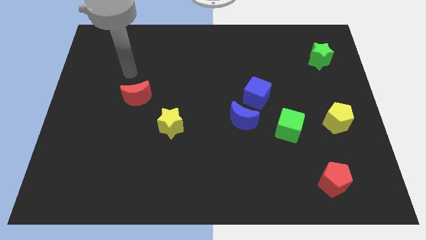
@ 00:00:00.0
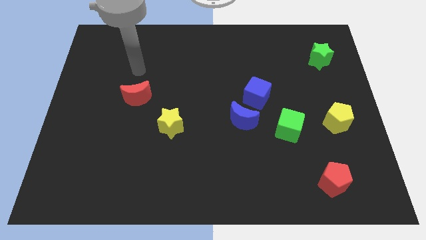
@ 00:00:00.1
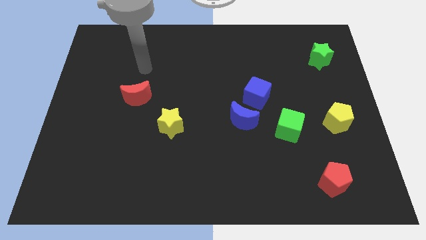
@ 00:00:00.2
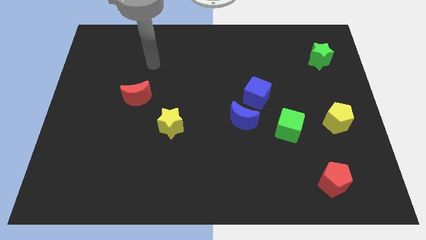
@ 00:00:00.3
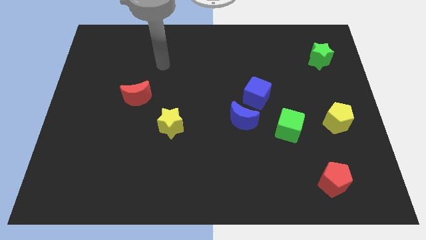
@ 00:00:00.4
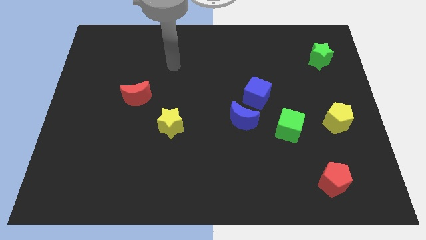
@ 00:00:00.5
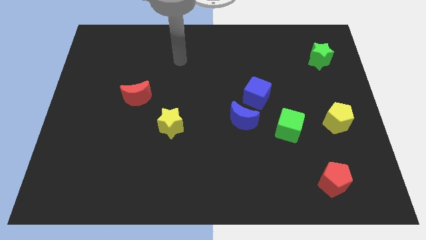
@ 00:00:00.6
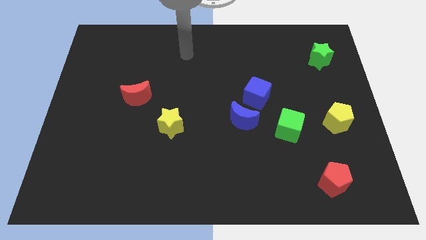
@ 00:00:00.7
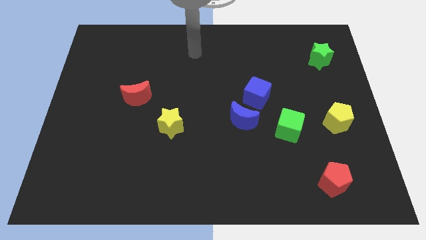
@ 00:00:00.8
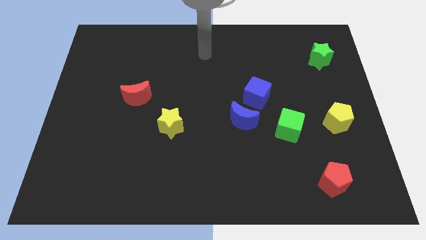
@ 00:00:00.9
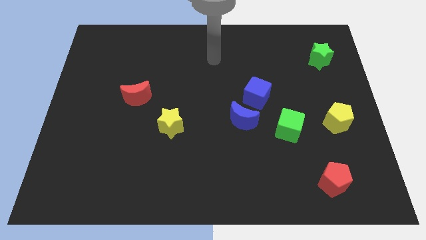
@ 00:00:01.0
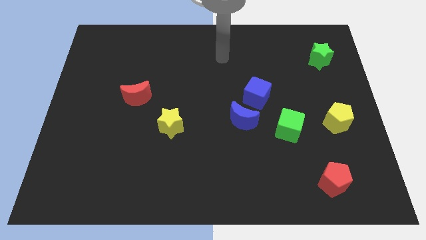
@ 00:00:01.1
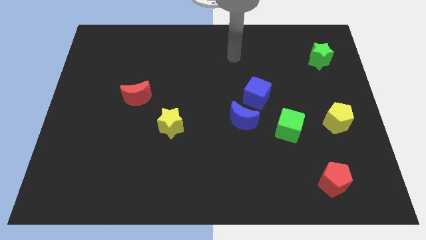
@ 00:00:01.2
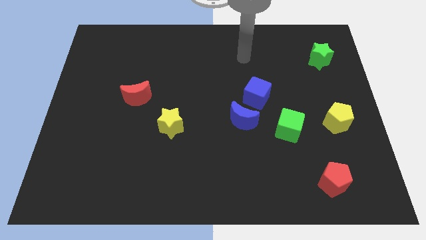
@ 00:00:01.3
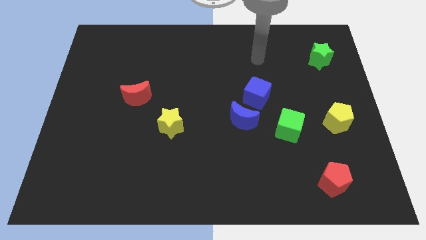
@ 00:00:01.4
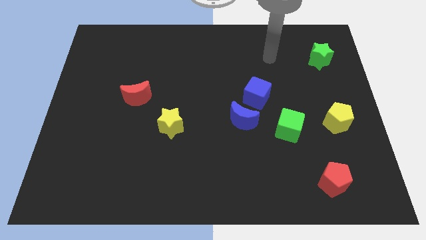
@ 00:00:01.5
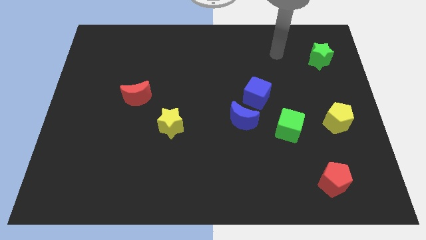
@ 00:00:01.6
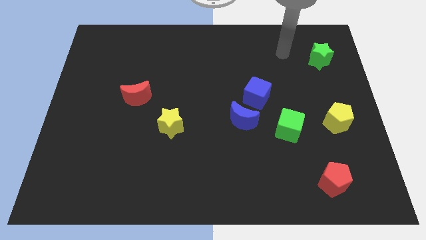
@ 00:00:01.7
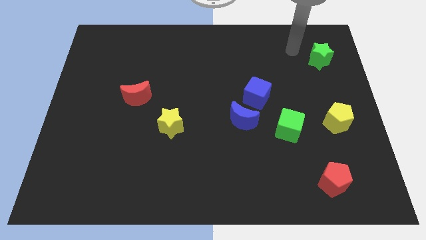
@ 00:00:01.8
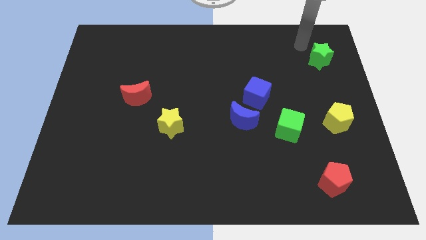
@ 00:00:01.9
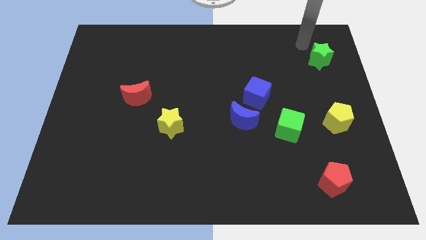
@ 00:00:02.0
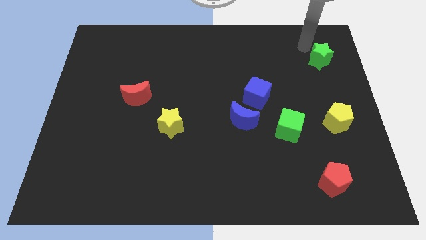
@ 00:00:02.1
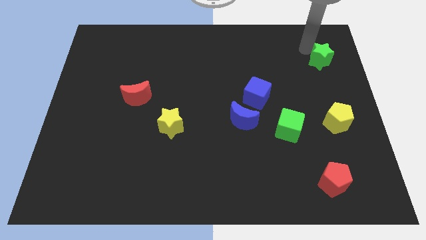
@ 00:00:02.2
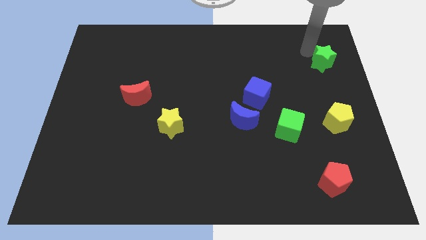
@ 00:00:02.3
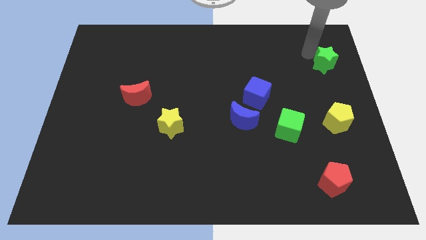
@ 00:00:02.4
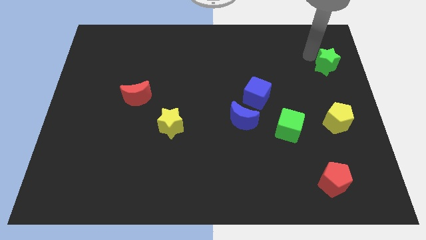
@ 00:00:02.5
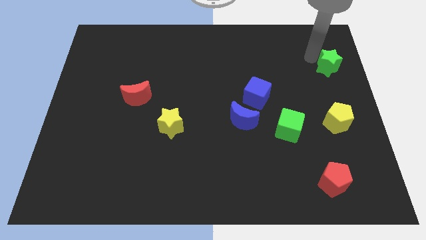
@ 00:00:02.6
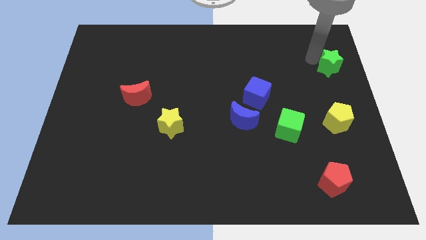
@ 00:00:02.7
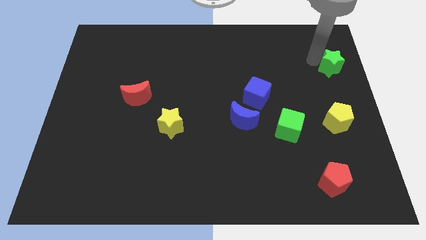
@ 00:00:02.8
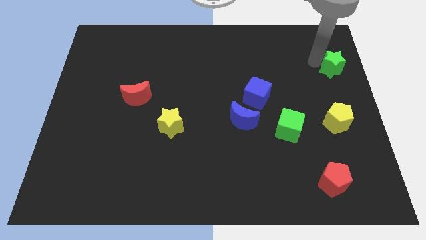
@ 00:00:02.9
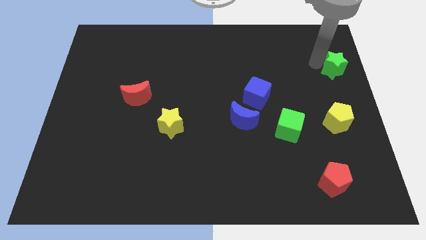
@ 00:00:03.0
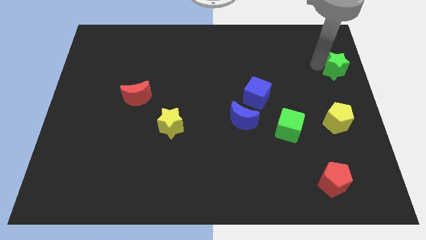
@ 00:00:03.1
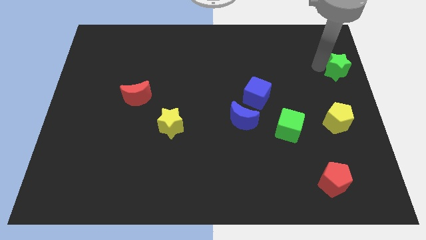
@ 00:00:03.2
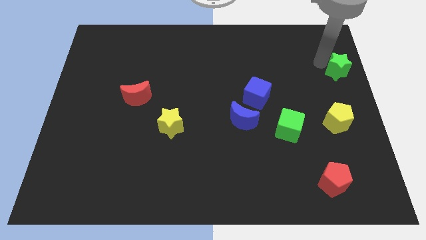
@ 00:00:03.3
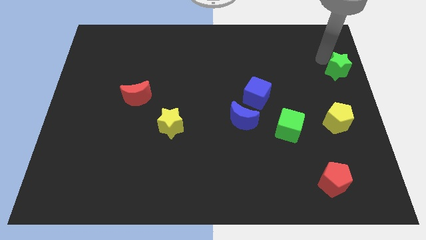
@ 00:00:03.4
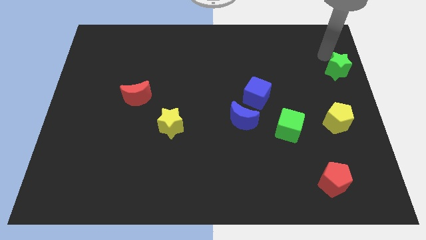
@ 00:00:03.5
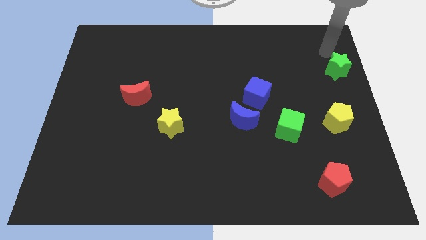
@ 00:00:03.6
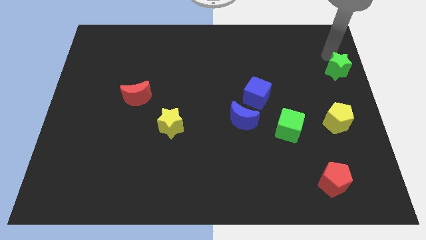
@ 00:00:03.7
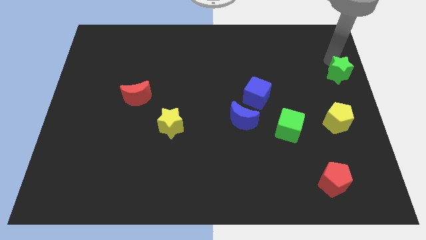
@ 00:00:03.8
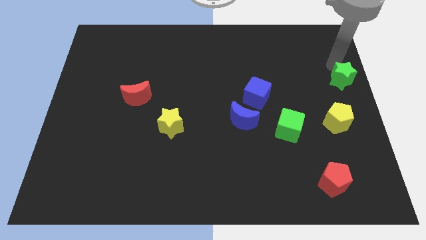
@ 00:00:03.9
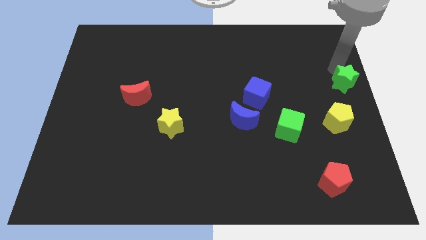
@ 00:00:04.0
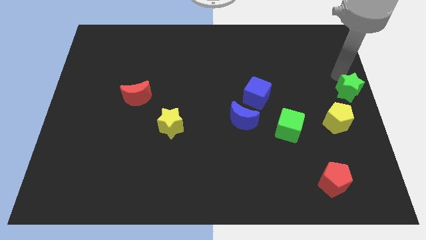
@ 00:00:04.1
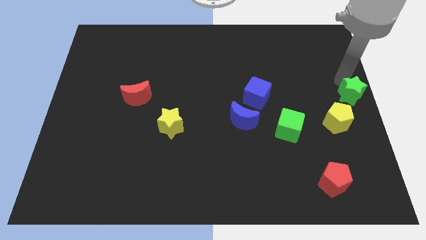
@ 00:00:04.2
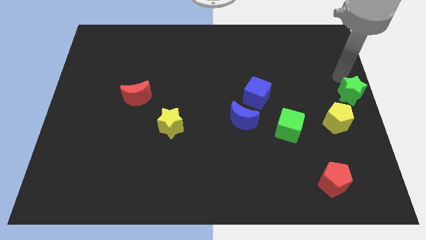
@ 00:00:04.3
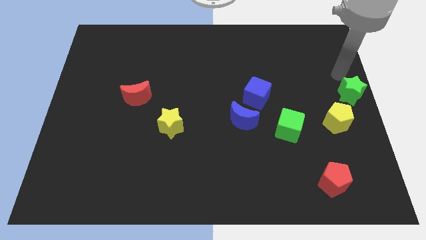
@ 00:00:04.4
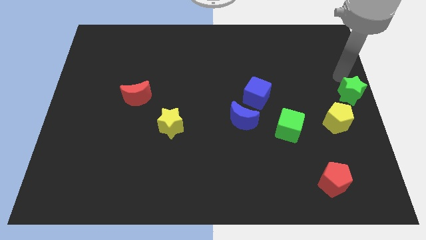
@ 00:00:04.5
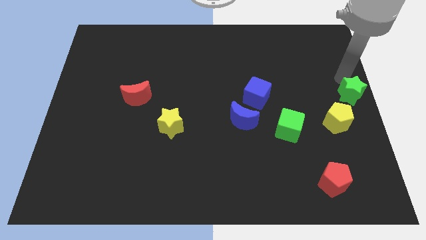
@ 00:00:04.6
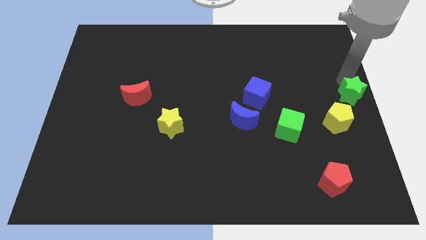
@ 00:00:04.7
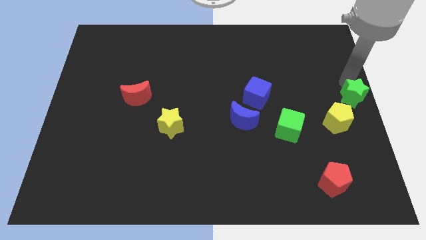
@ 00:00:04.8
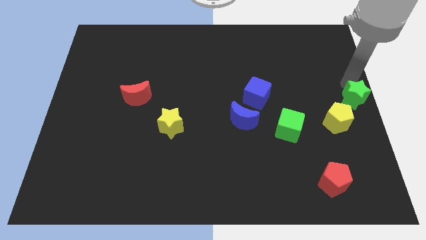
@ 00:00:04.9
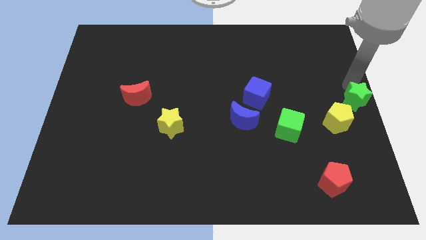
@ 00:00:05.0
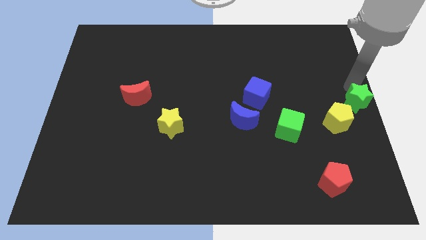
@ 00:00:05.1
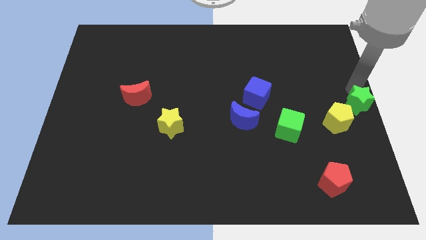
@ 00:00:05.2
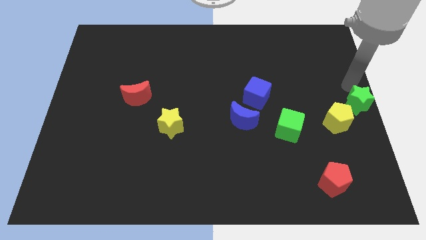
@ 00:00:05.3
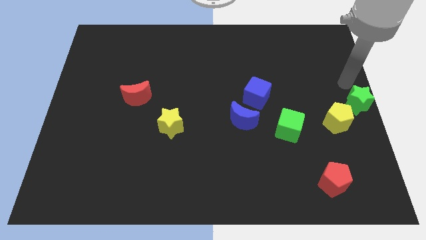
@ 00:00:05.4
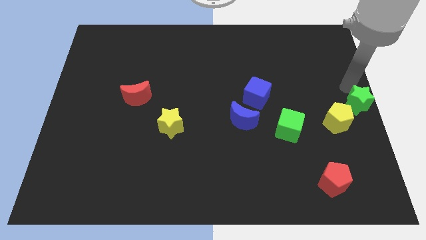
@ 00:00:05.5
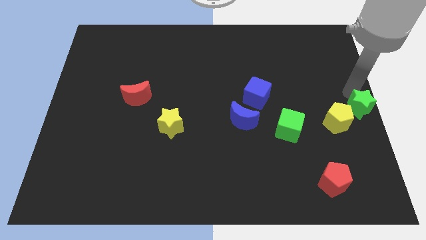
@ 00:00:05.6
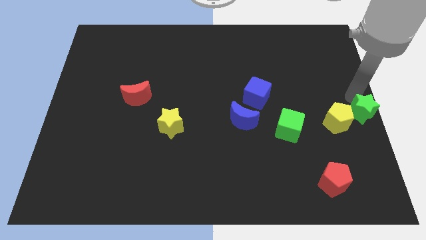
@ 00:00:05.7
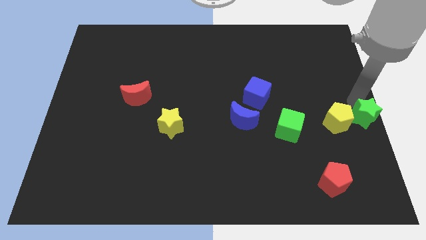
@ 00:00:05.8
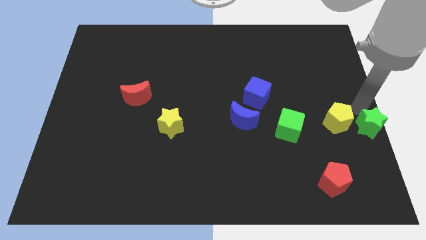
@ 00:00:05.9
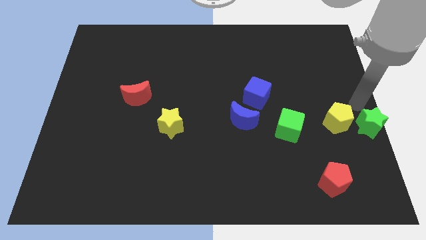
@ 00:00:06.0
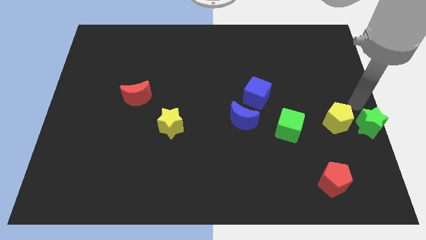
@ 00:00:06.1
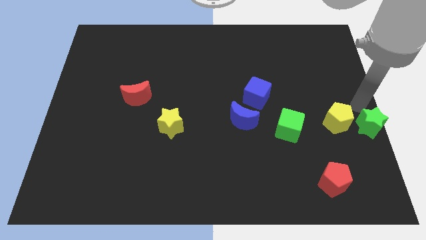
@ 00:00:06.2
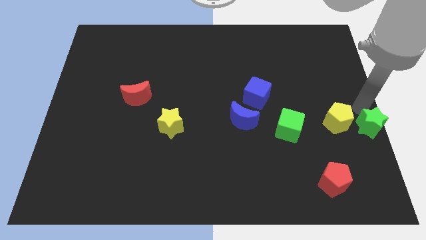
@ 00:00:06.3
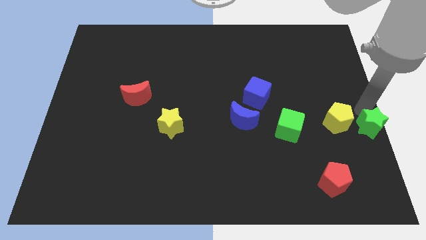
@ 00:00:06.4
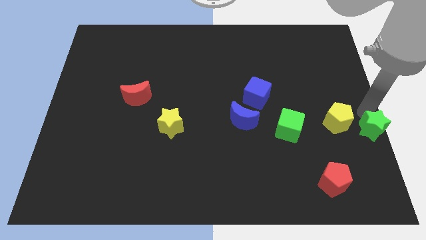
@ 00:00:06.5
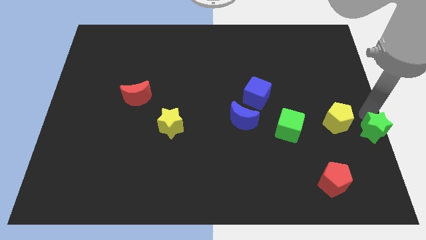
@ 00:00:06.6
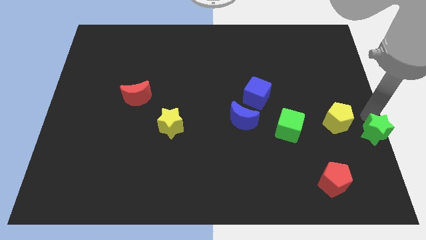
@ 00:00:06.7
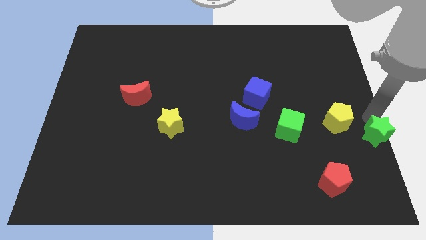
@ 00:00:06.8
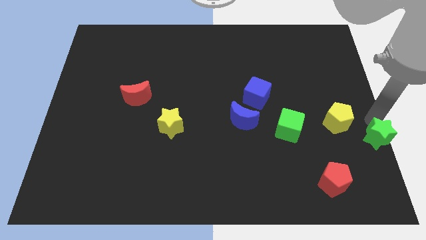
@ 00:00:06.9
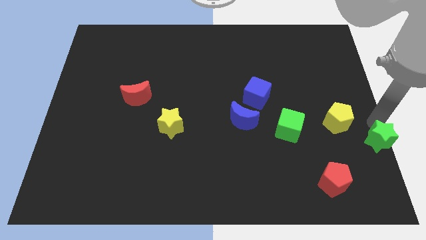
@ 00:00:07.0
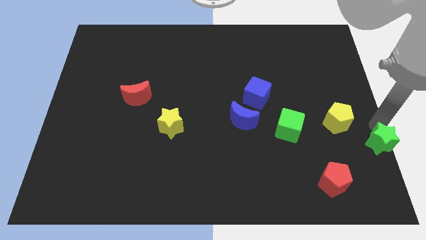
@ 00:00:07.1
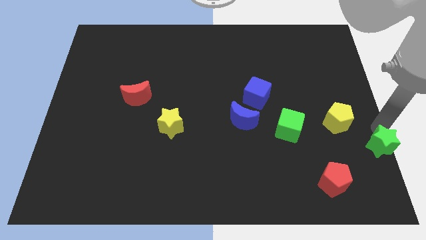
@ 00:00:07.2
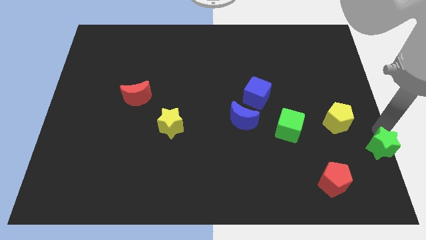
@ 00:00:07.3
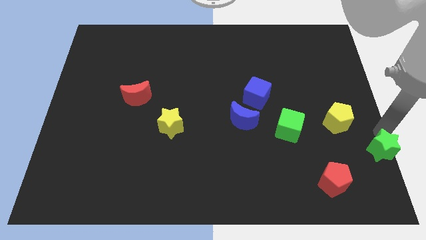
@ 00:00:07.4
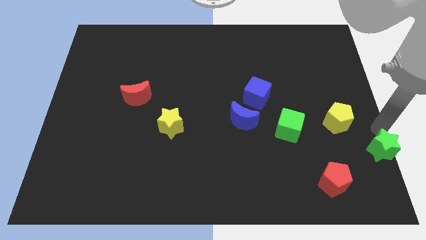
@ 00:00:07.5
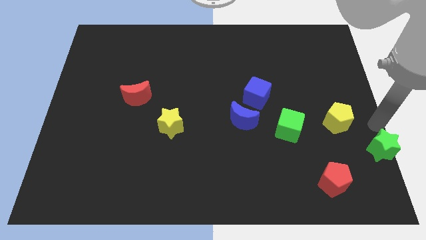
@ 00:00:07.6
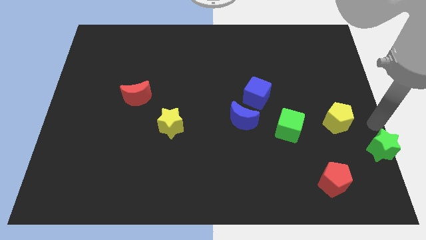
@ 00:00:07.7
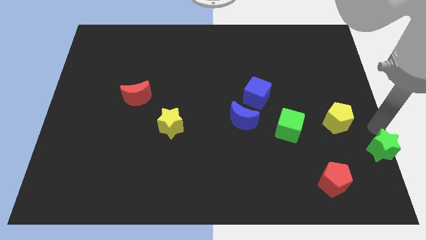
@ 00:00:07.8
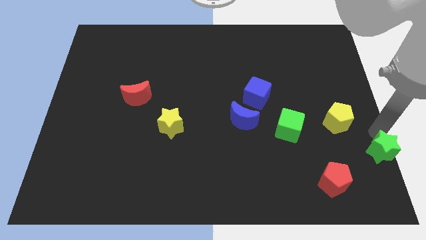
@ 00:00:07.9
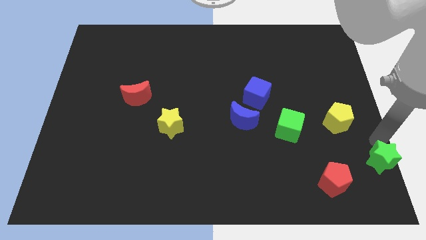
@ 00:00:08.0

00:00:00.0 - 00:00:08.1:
put the green star to the lower right corner
